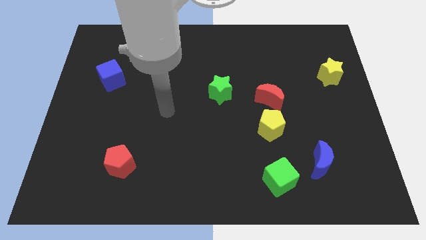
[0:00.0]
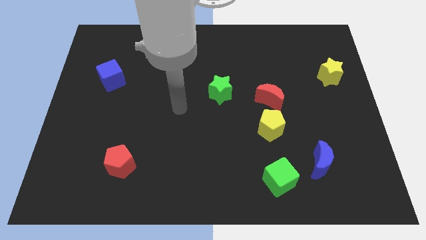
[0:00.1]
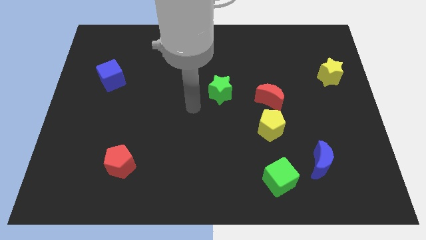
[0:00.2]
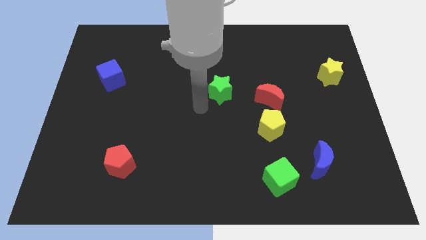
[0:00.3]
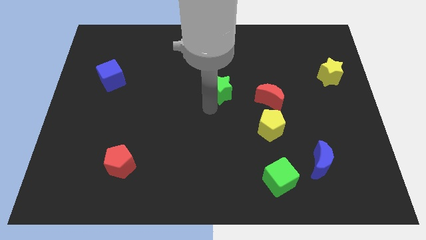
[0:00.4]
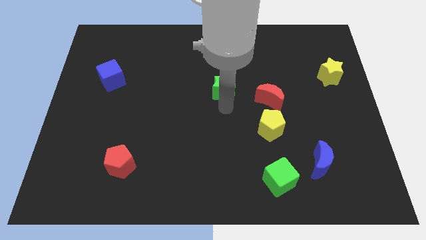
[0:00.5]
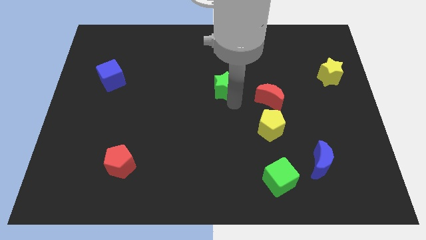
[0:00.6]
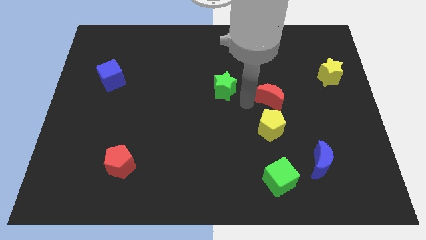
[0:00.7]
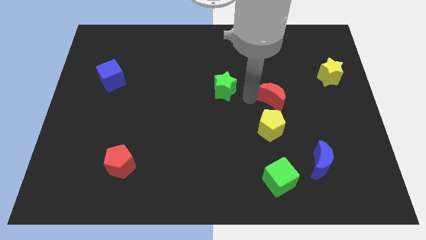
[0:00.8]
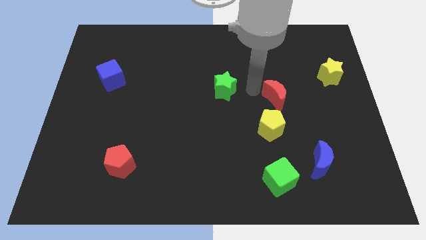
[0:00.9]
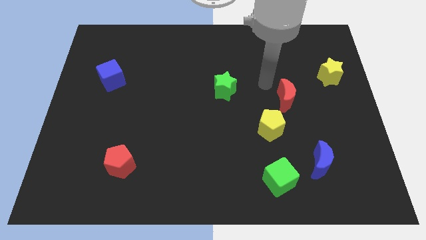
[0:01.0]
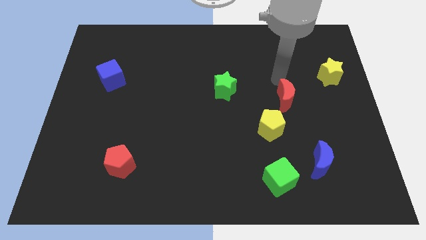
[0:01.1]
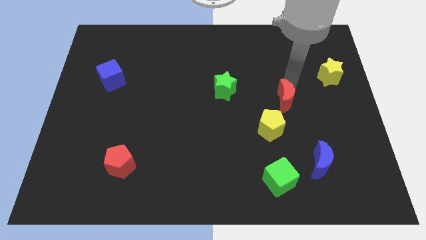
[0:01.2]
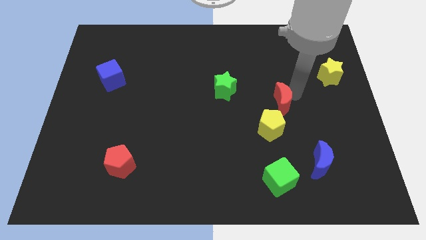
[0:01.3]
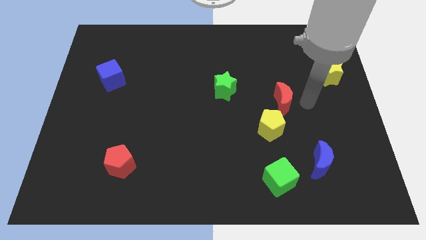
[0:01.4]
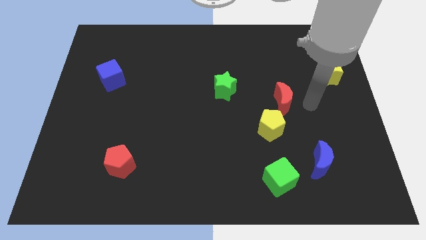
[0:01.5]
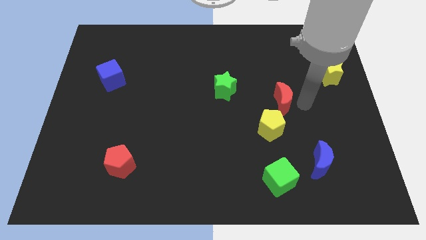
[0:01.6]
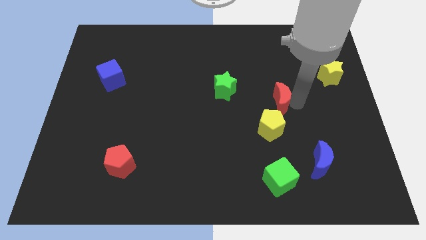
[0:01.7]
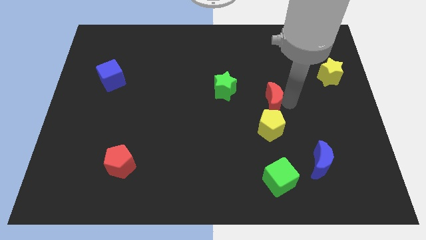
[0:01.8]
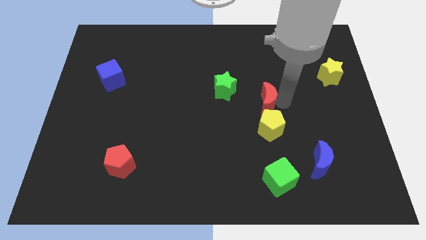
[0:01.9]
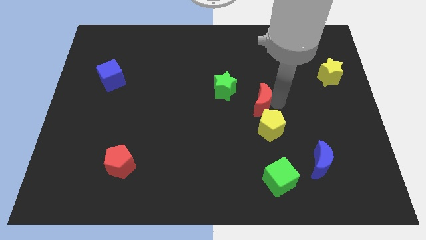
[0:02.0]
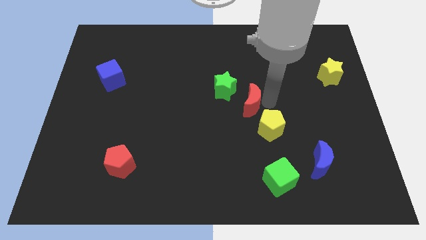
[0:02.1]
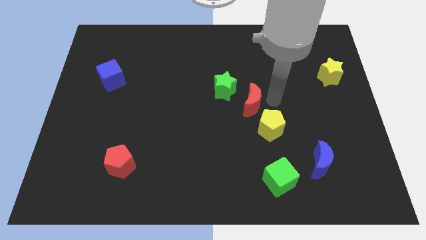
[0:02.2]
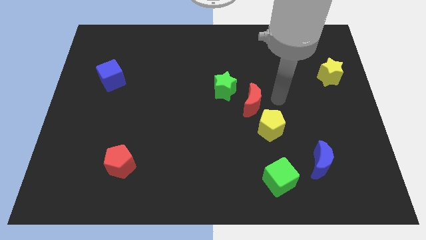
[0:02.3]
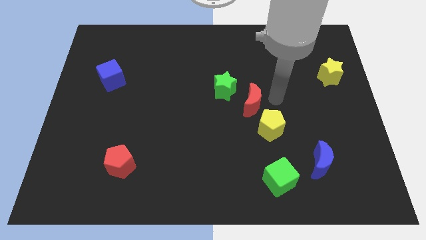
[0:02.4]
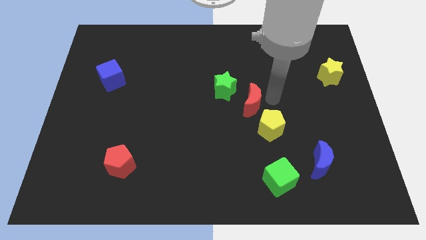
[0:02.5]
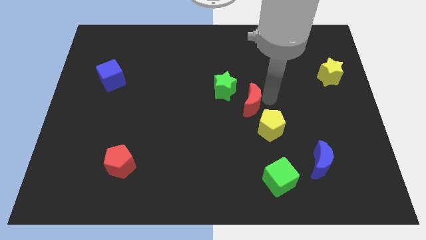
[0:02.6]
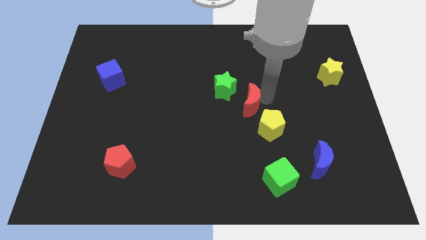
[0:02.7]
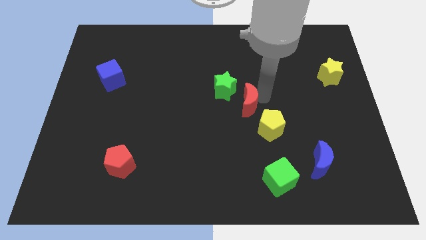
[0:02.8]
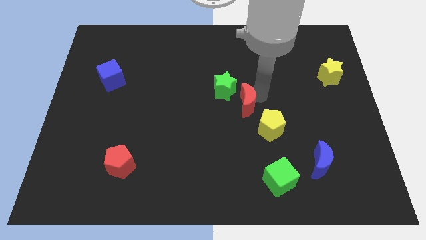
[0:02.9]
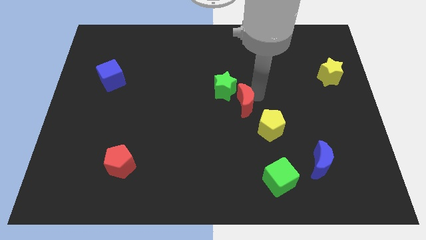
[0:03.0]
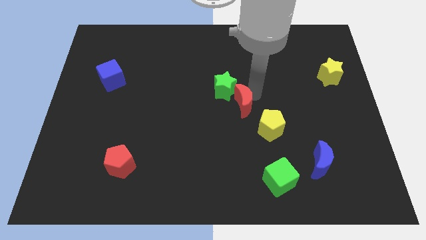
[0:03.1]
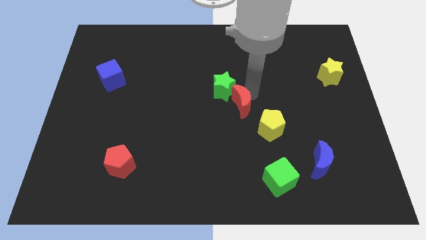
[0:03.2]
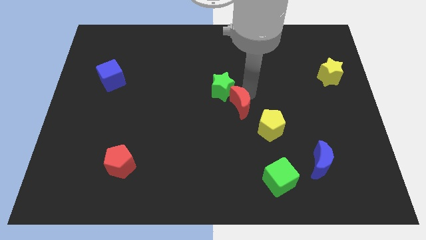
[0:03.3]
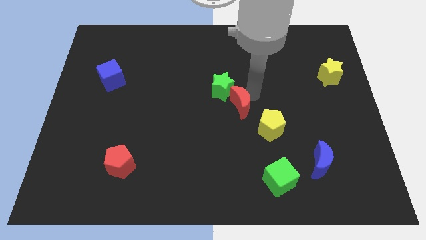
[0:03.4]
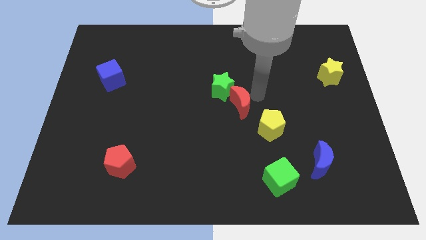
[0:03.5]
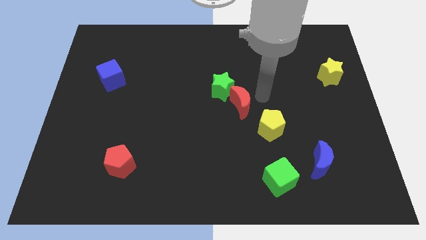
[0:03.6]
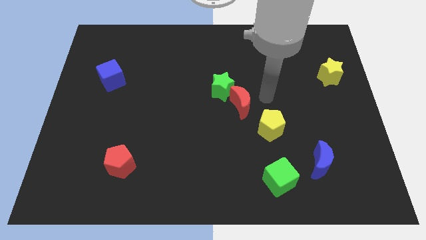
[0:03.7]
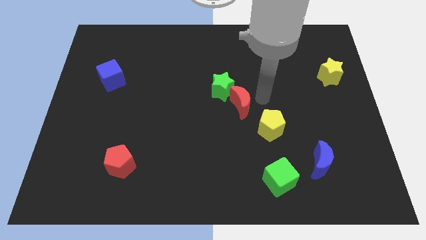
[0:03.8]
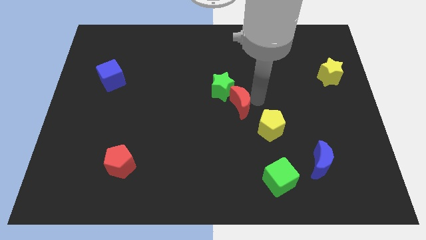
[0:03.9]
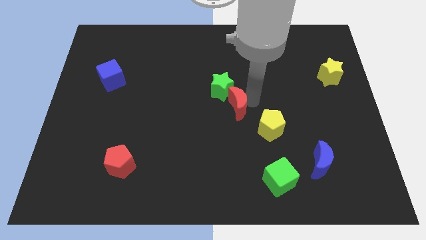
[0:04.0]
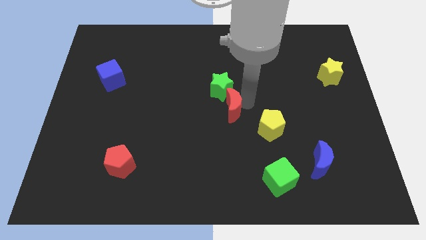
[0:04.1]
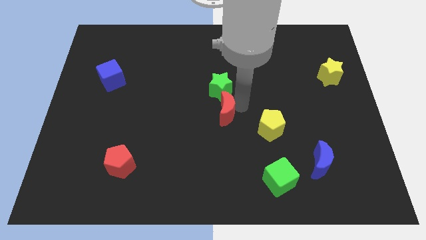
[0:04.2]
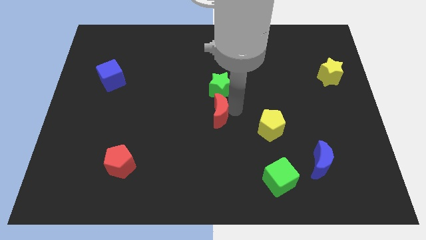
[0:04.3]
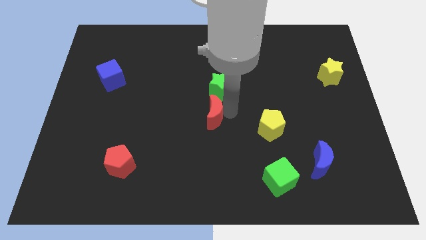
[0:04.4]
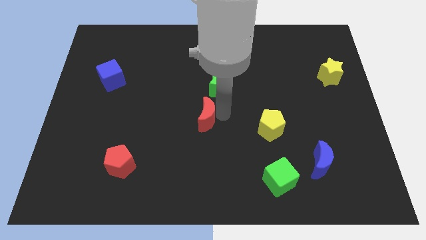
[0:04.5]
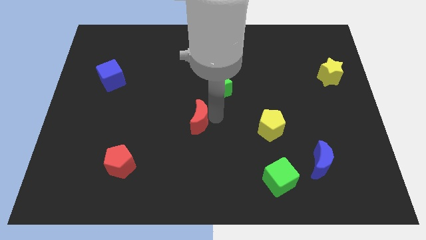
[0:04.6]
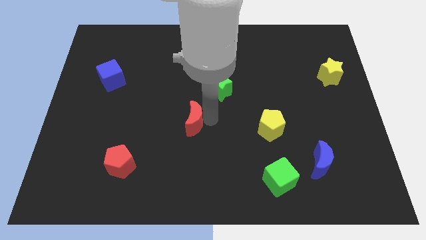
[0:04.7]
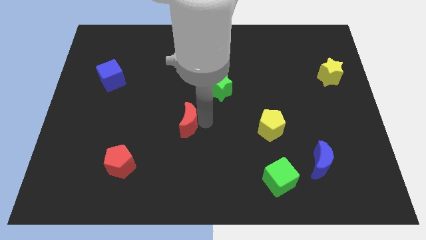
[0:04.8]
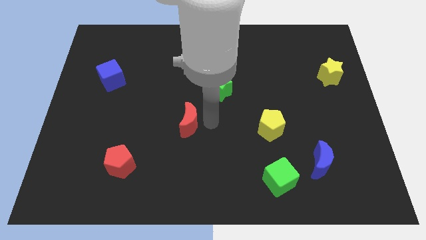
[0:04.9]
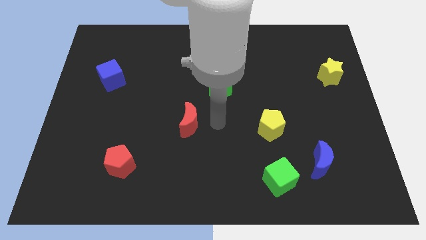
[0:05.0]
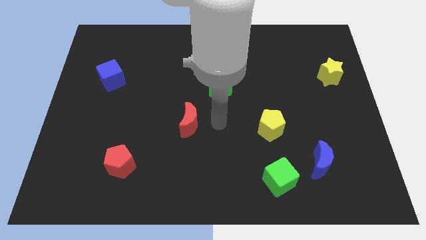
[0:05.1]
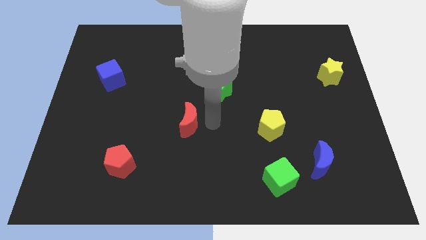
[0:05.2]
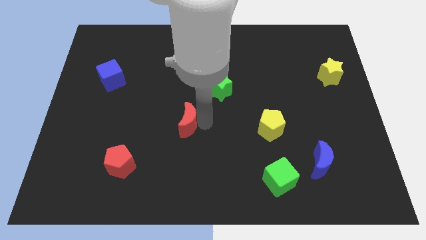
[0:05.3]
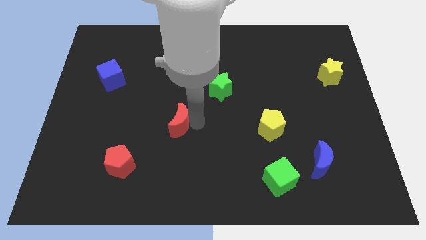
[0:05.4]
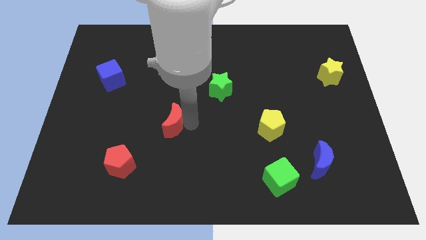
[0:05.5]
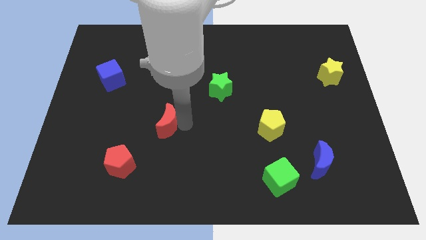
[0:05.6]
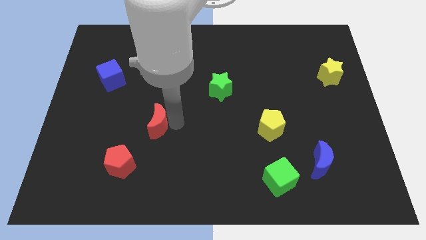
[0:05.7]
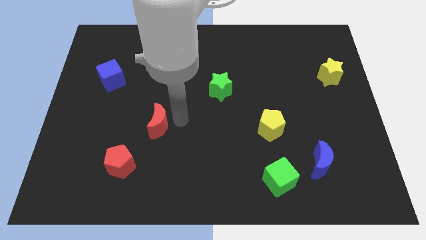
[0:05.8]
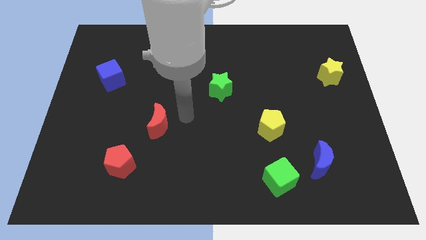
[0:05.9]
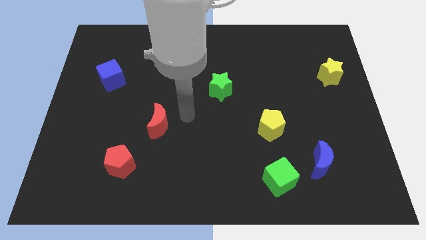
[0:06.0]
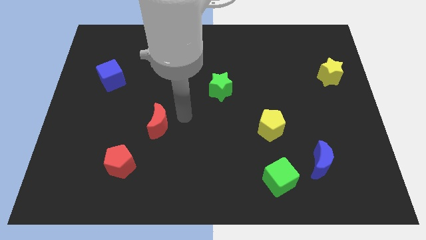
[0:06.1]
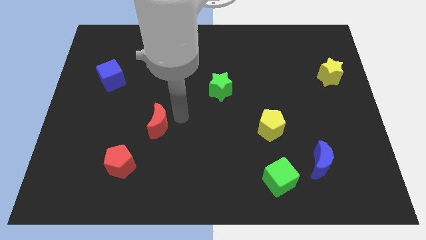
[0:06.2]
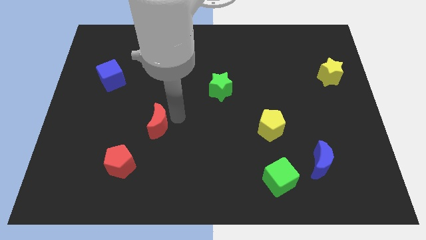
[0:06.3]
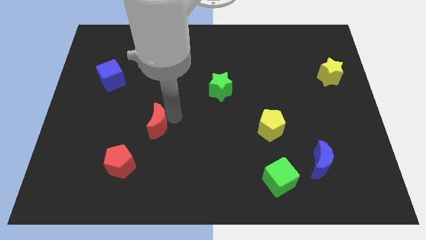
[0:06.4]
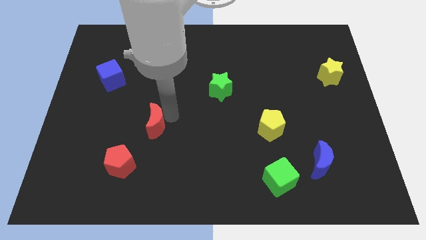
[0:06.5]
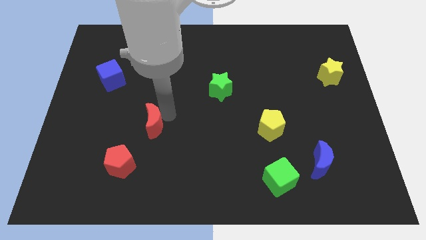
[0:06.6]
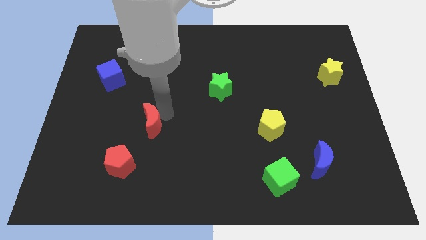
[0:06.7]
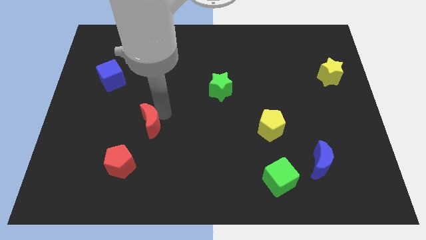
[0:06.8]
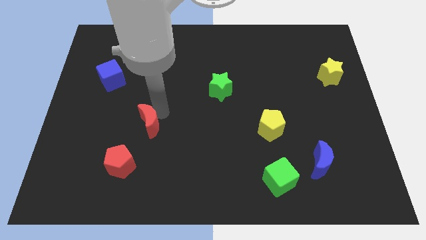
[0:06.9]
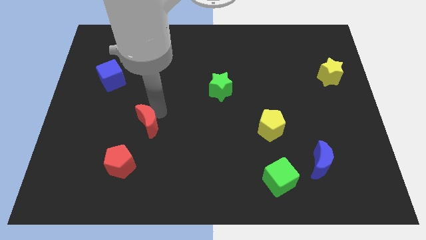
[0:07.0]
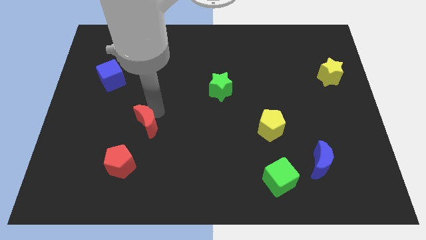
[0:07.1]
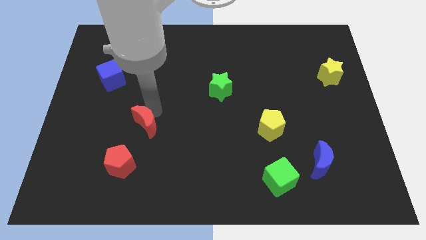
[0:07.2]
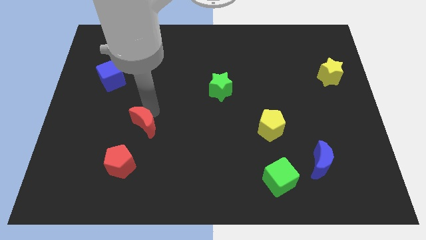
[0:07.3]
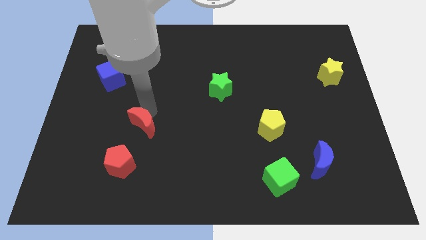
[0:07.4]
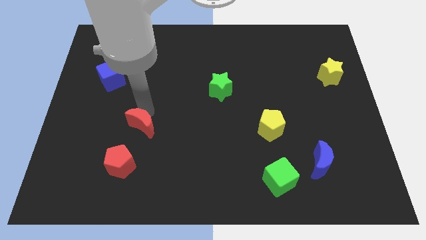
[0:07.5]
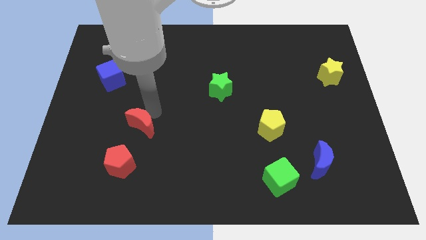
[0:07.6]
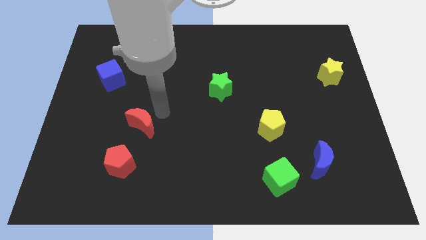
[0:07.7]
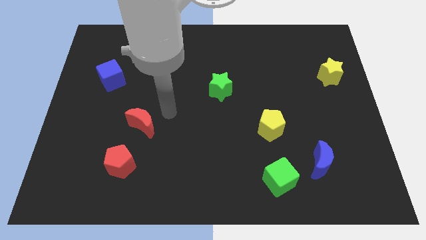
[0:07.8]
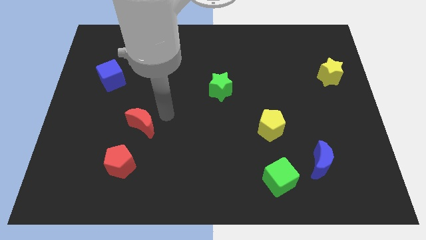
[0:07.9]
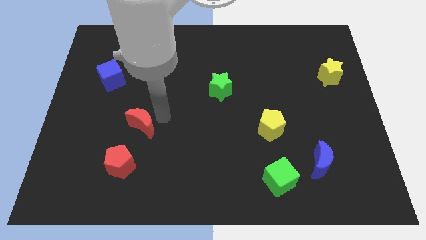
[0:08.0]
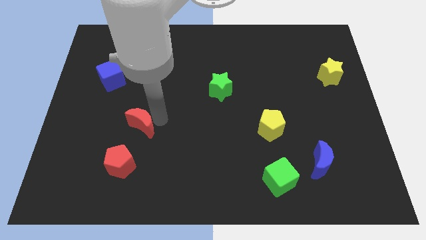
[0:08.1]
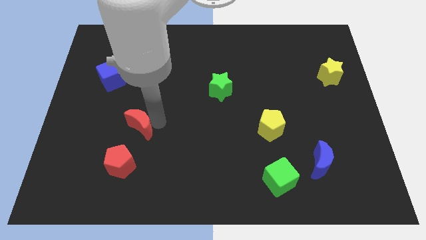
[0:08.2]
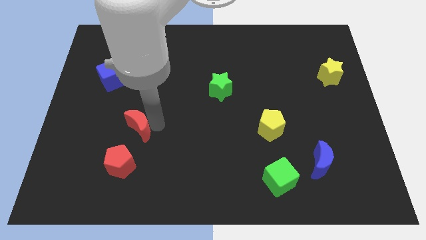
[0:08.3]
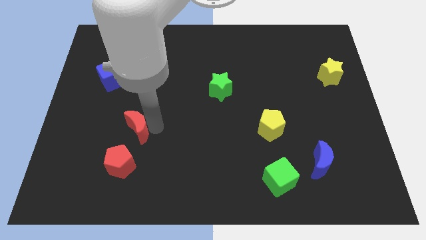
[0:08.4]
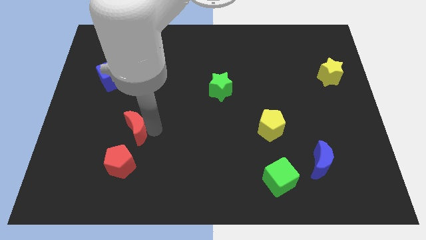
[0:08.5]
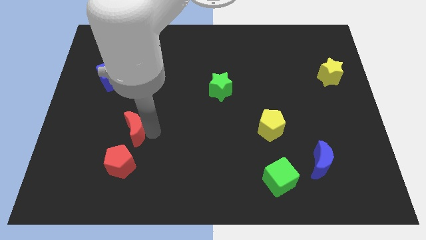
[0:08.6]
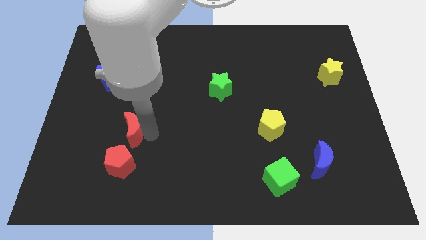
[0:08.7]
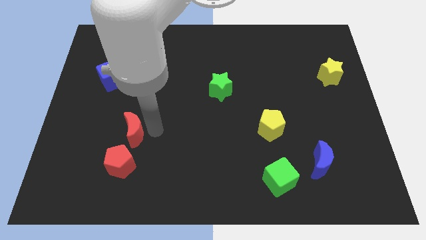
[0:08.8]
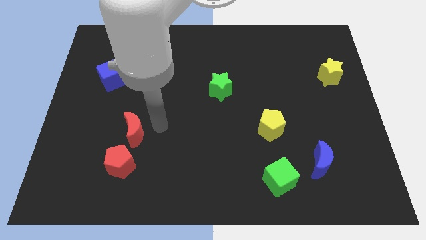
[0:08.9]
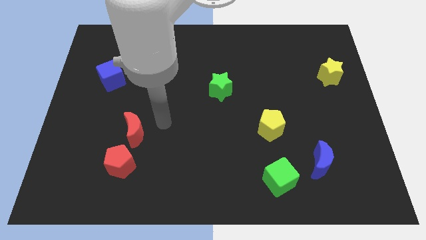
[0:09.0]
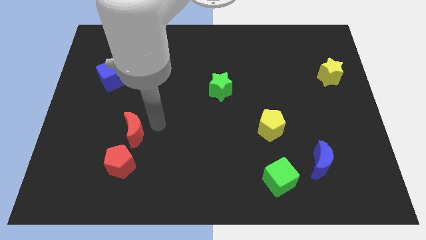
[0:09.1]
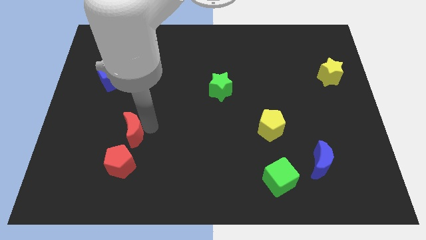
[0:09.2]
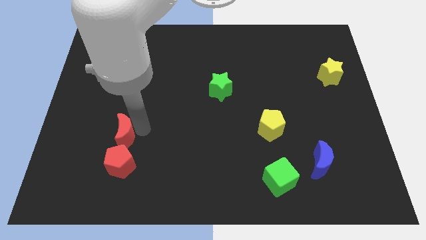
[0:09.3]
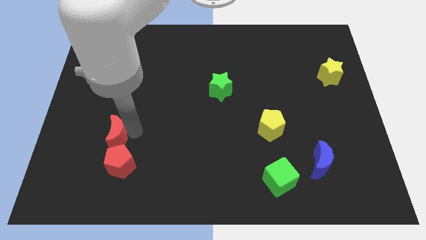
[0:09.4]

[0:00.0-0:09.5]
move the red moon diagonally up and to the left of the red pentagon
